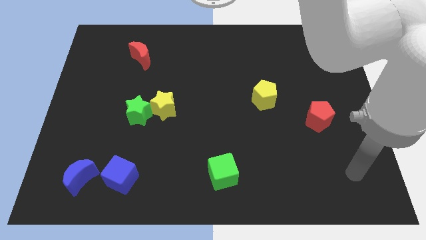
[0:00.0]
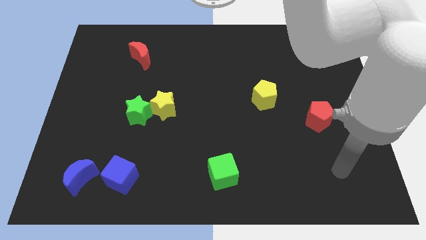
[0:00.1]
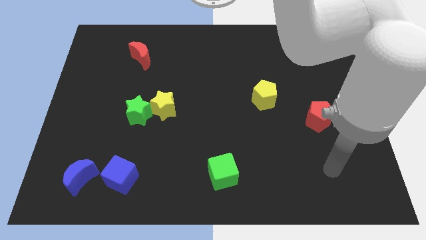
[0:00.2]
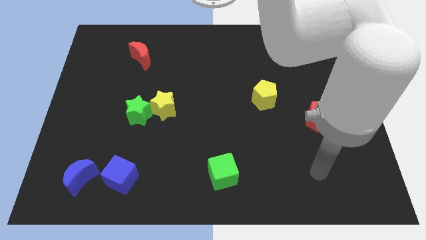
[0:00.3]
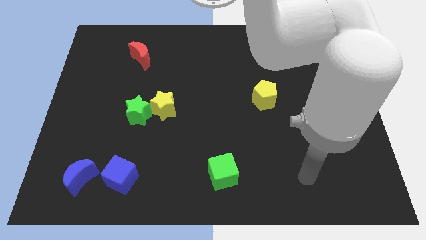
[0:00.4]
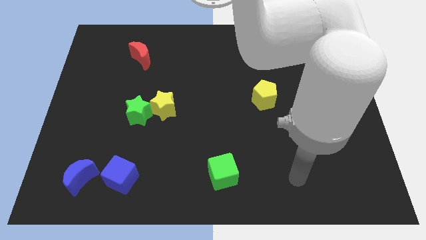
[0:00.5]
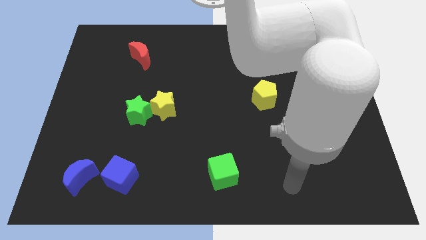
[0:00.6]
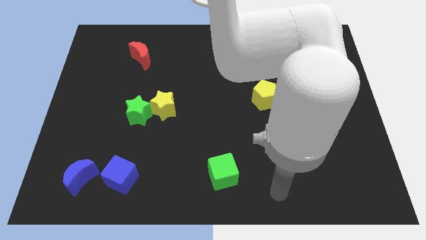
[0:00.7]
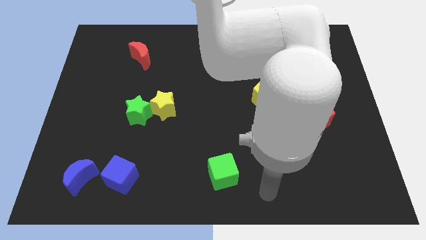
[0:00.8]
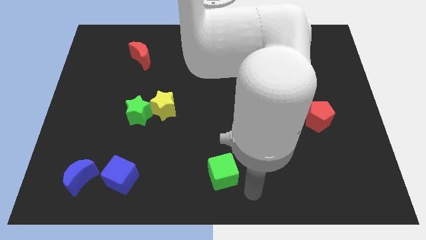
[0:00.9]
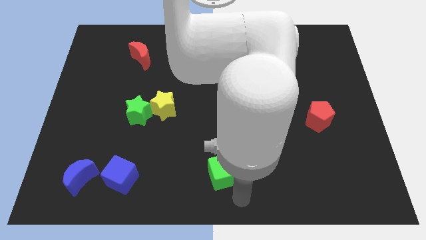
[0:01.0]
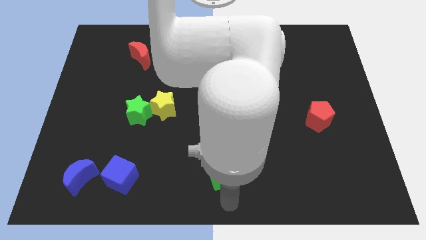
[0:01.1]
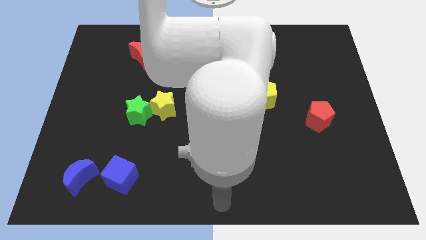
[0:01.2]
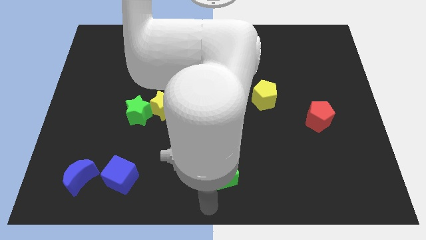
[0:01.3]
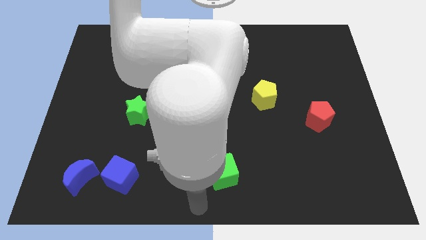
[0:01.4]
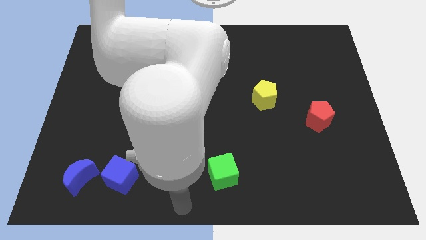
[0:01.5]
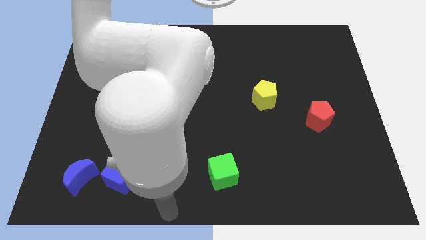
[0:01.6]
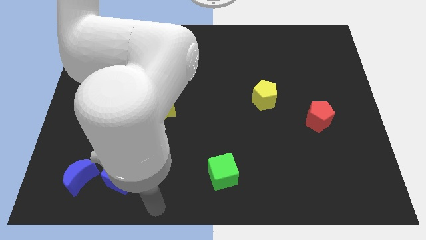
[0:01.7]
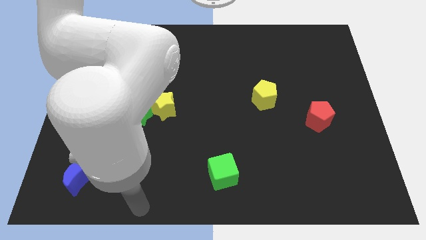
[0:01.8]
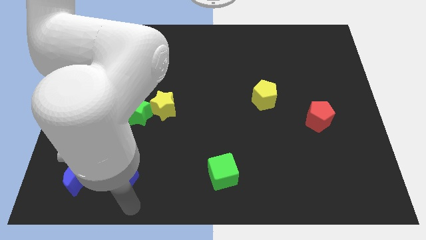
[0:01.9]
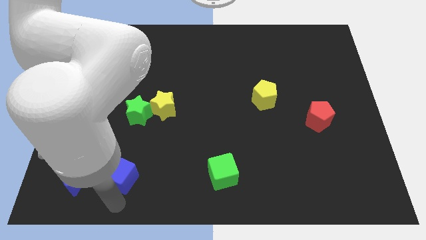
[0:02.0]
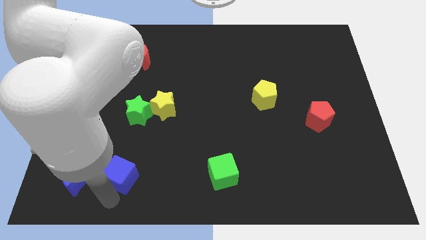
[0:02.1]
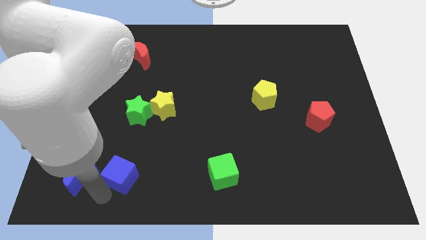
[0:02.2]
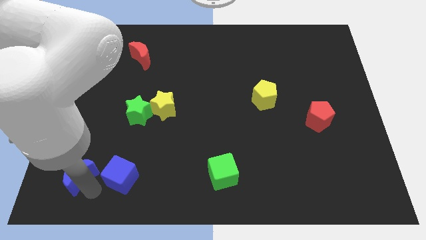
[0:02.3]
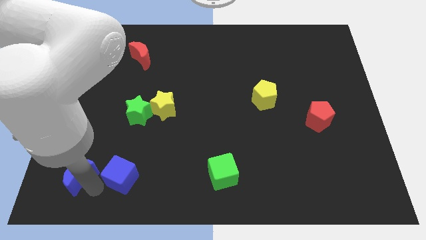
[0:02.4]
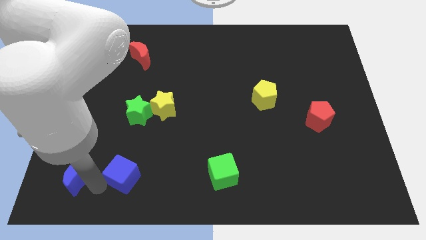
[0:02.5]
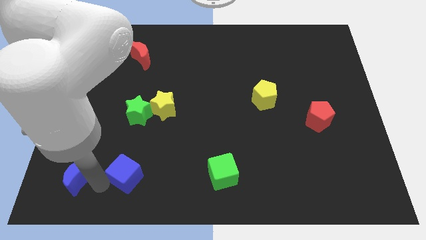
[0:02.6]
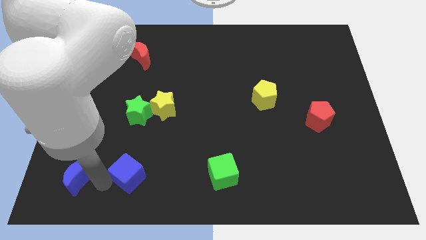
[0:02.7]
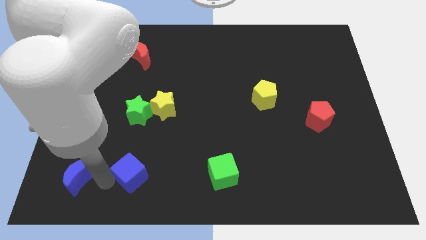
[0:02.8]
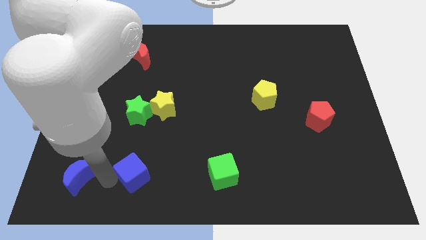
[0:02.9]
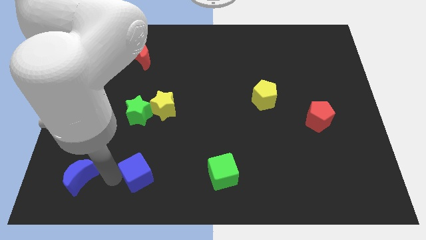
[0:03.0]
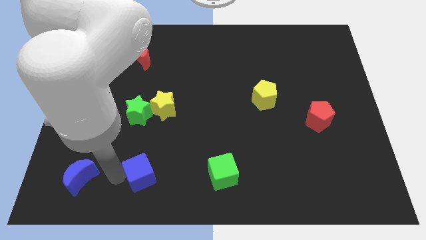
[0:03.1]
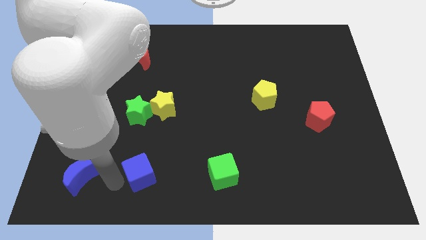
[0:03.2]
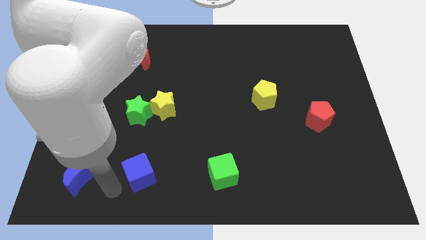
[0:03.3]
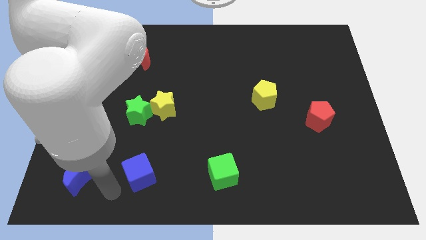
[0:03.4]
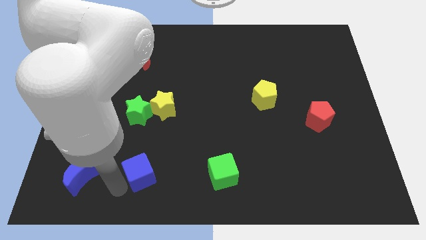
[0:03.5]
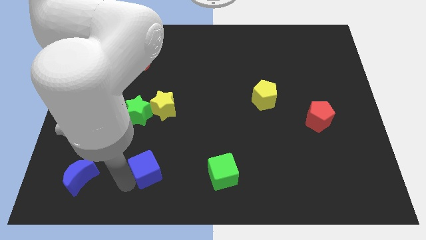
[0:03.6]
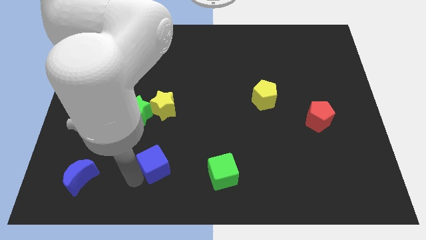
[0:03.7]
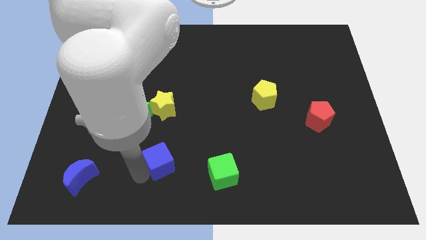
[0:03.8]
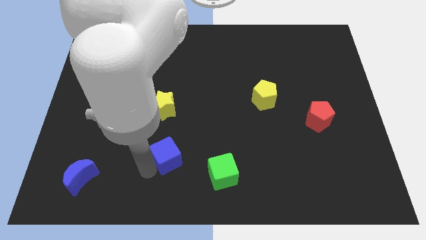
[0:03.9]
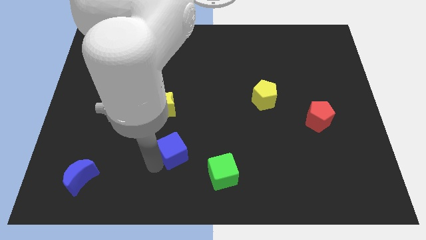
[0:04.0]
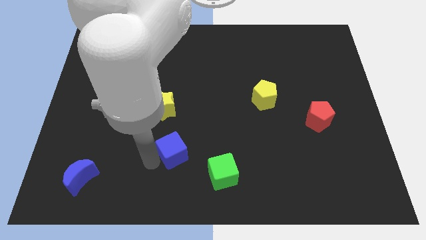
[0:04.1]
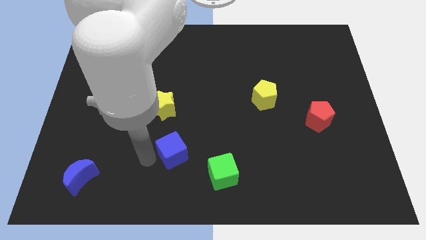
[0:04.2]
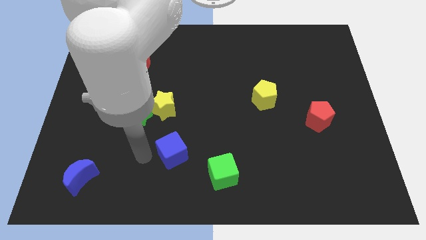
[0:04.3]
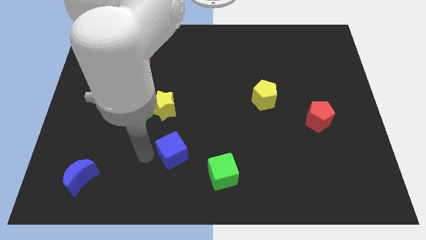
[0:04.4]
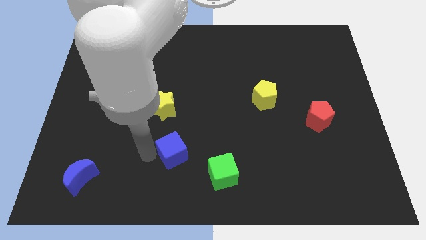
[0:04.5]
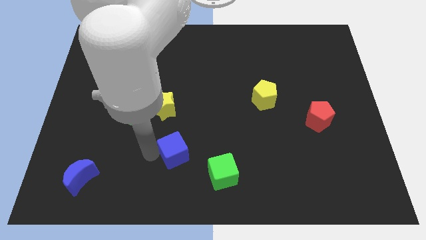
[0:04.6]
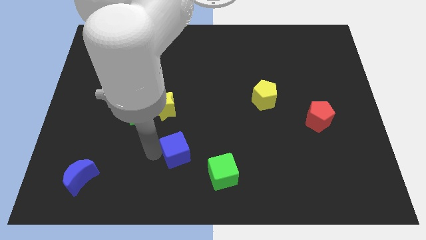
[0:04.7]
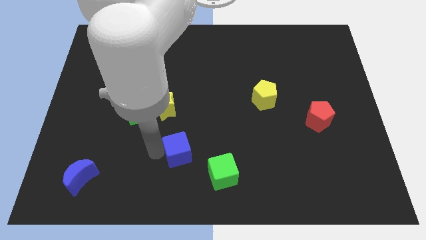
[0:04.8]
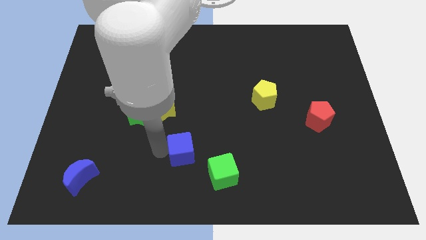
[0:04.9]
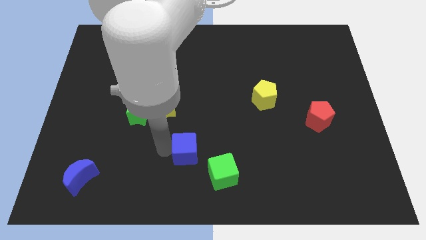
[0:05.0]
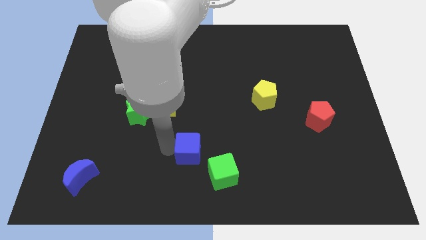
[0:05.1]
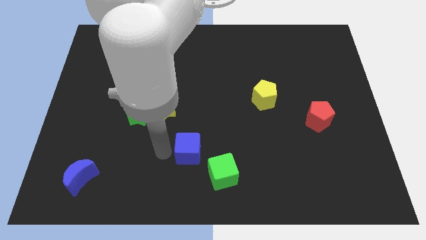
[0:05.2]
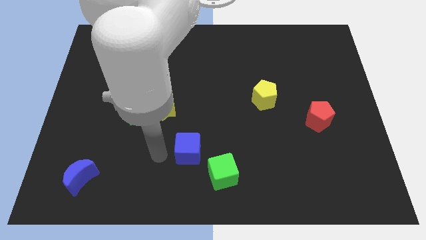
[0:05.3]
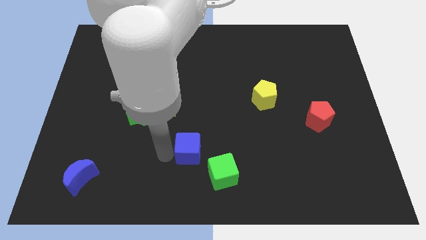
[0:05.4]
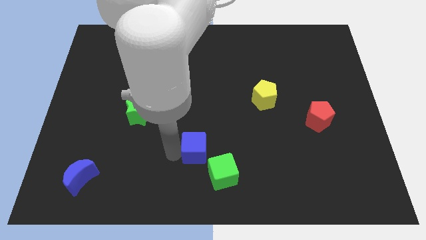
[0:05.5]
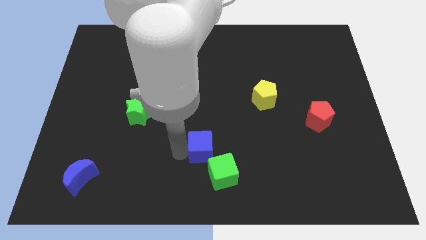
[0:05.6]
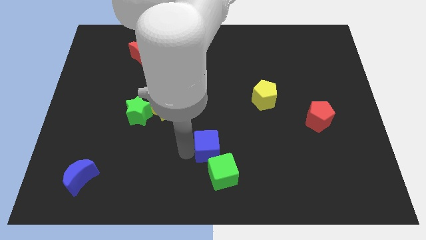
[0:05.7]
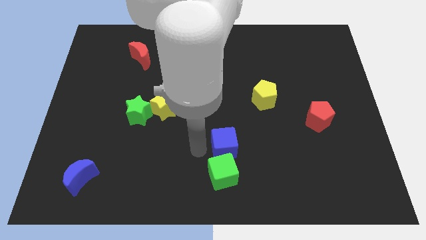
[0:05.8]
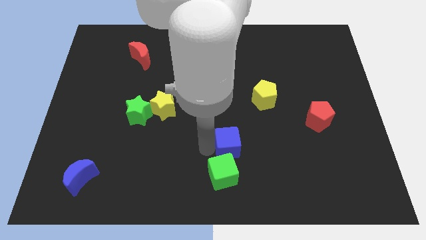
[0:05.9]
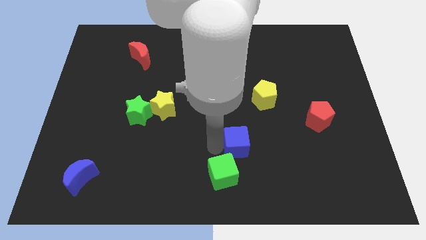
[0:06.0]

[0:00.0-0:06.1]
move the blue cube to the right

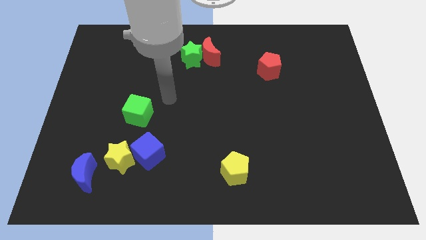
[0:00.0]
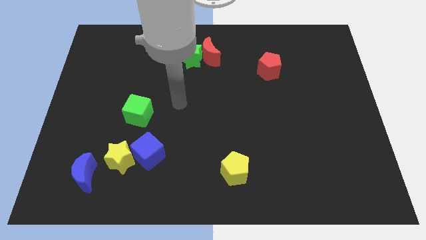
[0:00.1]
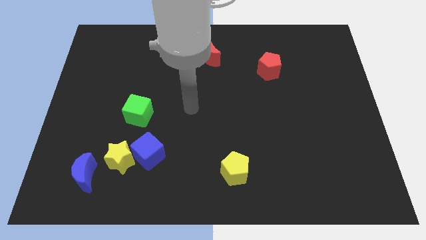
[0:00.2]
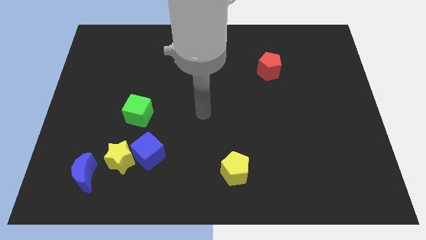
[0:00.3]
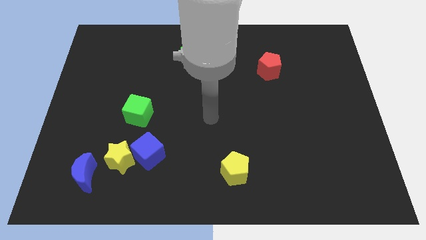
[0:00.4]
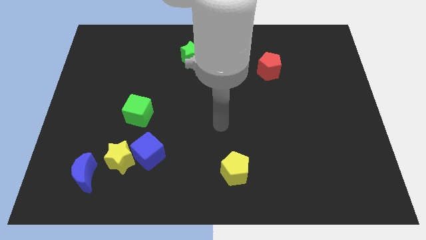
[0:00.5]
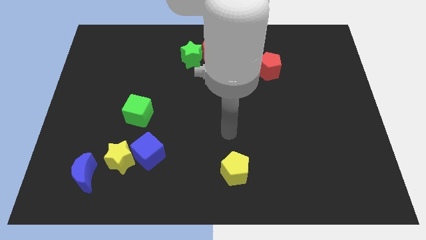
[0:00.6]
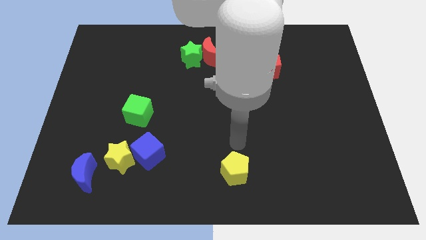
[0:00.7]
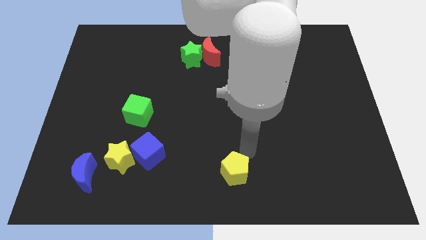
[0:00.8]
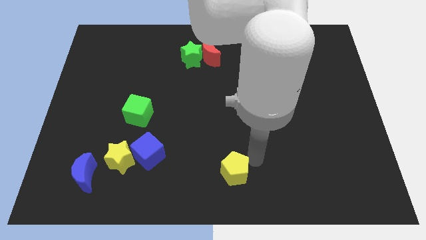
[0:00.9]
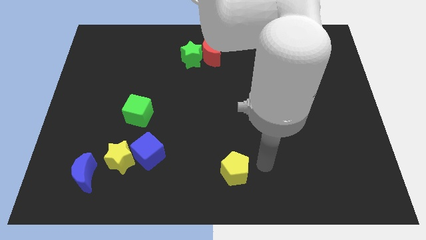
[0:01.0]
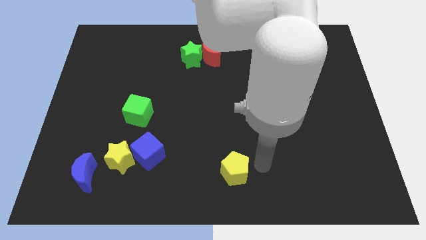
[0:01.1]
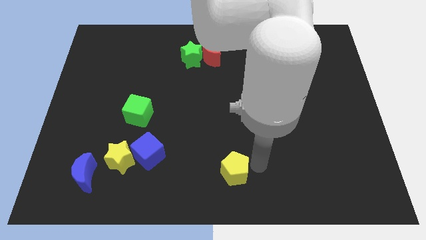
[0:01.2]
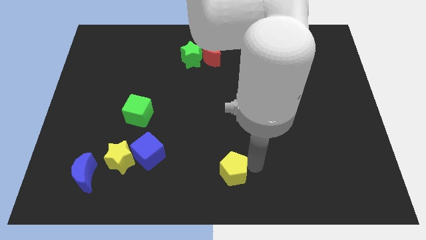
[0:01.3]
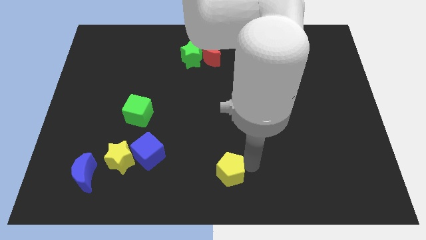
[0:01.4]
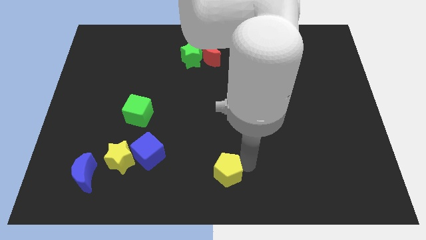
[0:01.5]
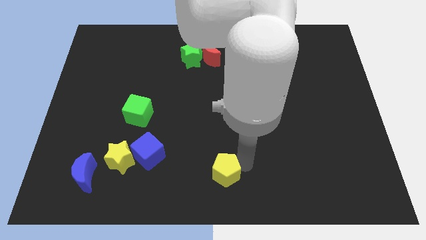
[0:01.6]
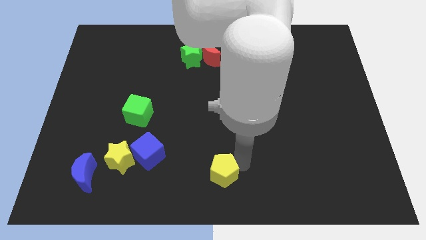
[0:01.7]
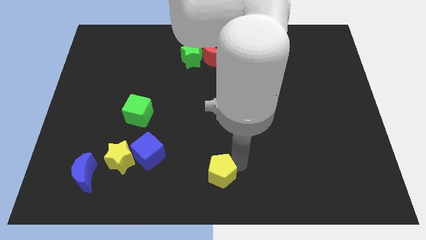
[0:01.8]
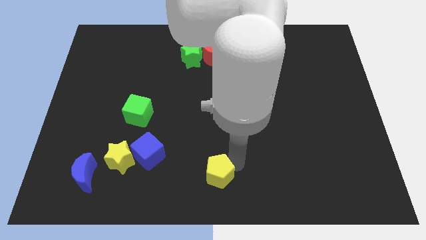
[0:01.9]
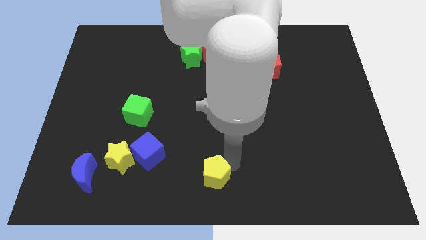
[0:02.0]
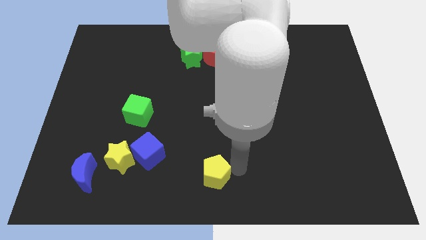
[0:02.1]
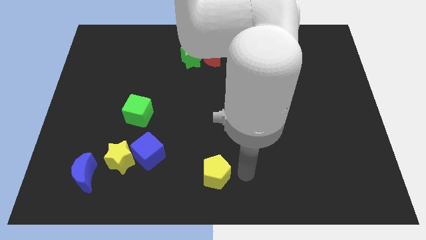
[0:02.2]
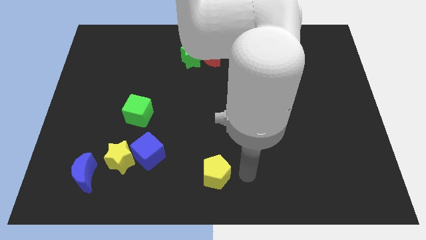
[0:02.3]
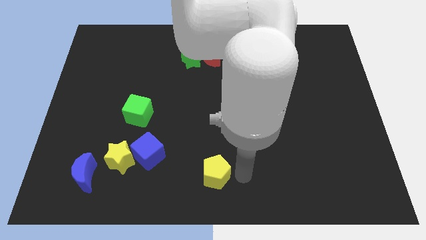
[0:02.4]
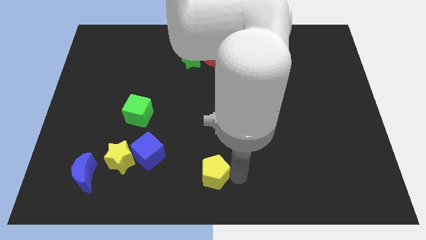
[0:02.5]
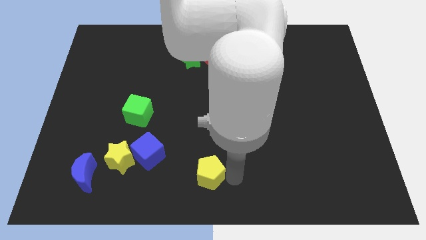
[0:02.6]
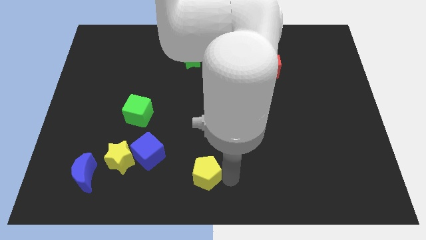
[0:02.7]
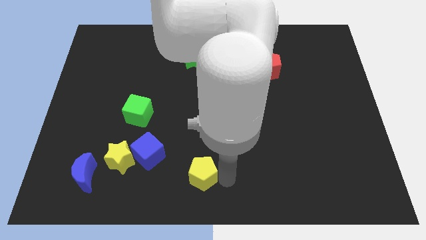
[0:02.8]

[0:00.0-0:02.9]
push the yellow pentagon to the left somewhat
